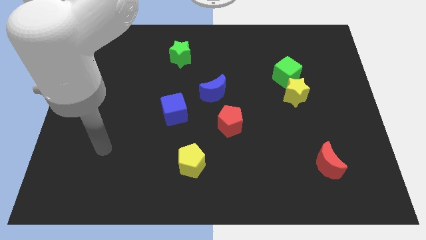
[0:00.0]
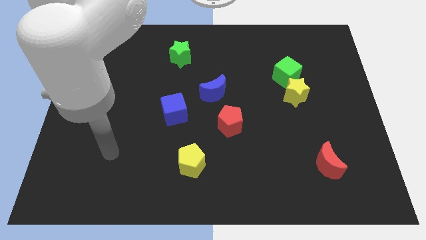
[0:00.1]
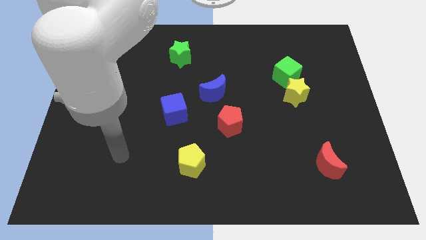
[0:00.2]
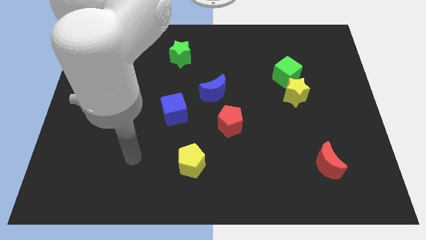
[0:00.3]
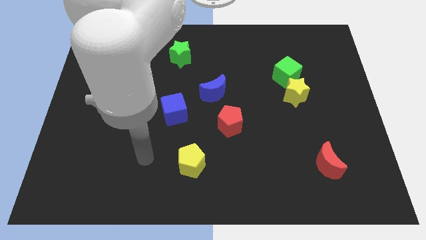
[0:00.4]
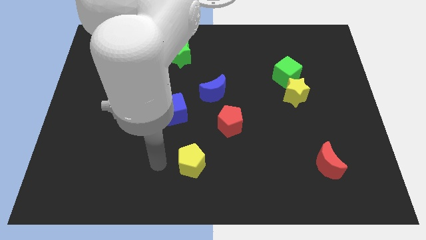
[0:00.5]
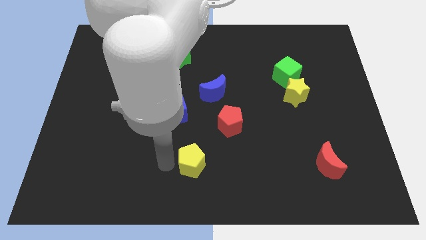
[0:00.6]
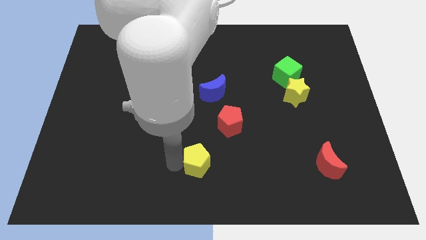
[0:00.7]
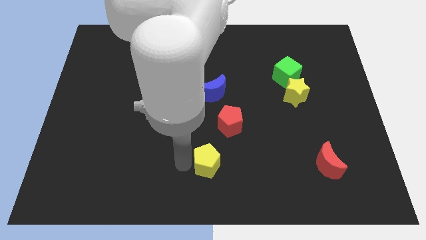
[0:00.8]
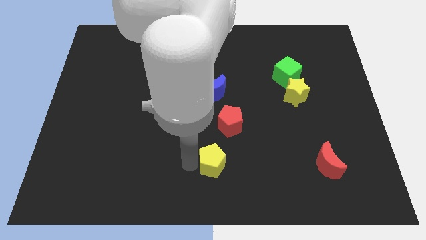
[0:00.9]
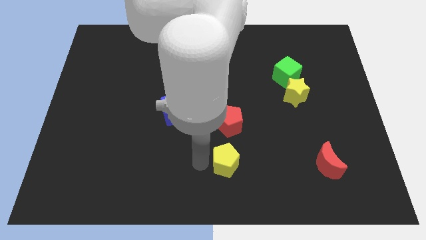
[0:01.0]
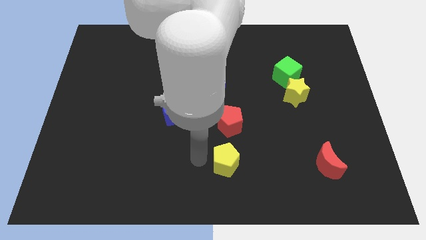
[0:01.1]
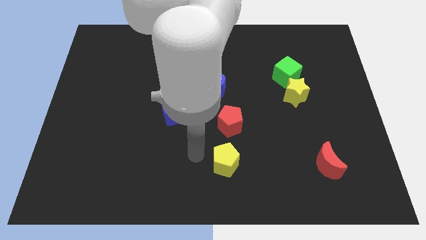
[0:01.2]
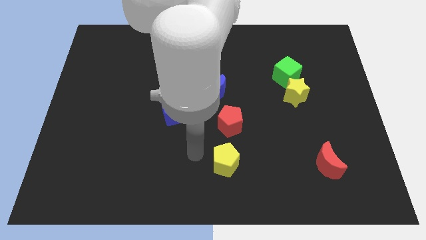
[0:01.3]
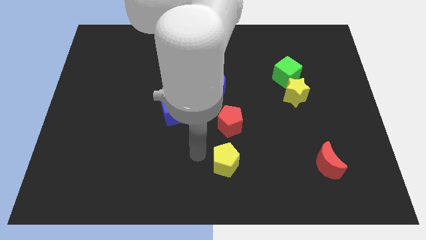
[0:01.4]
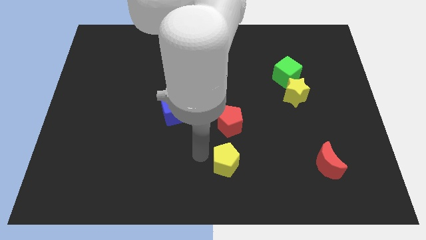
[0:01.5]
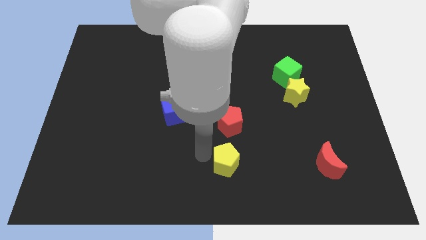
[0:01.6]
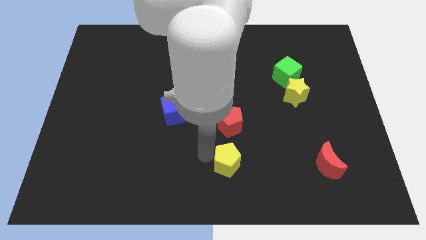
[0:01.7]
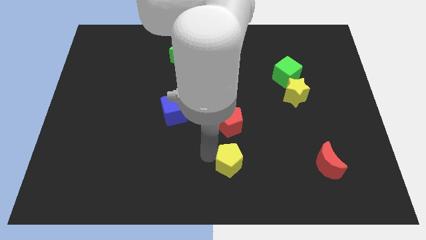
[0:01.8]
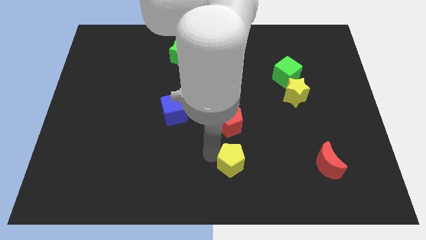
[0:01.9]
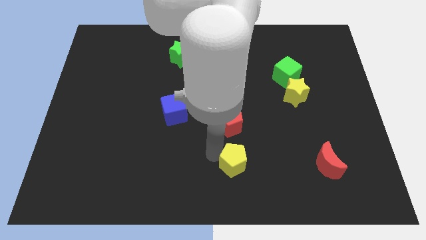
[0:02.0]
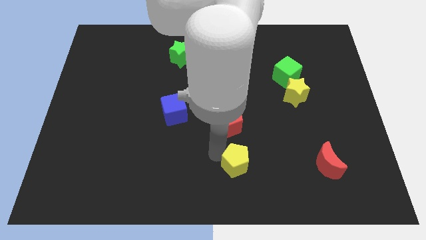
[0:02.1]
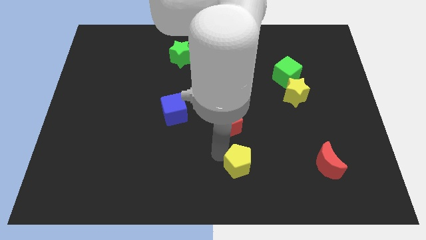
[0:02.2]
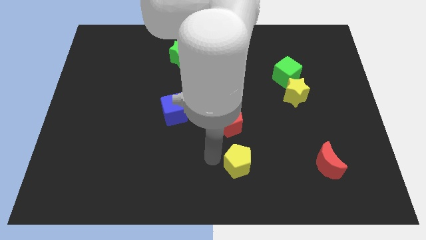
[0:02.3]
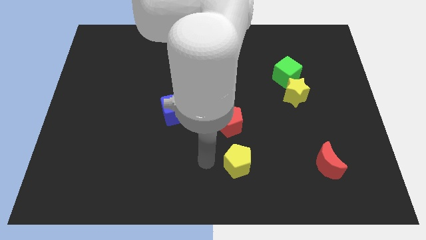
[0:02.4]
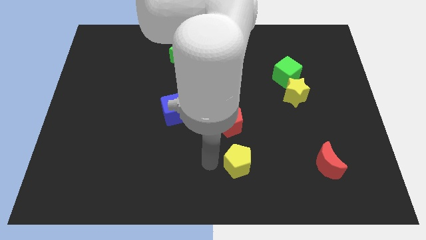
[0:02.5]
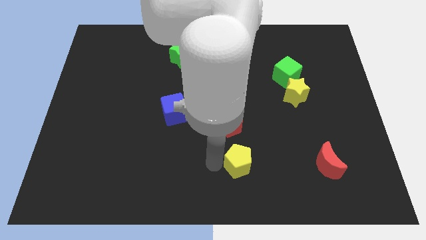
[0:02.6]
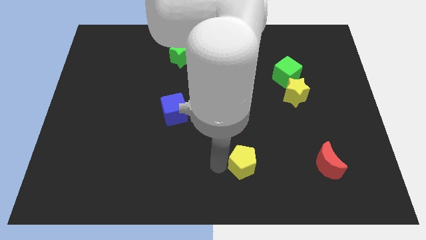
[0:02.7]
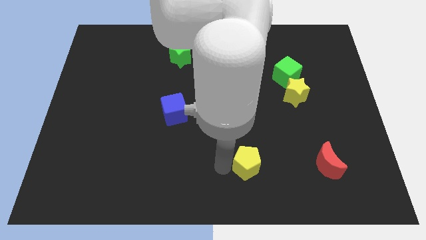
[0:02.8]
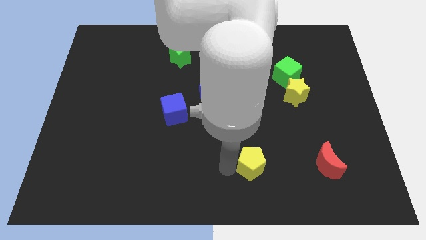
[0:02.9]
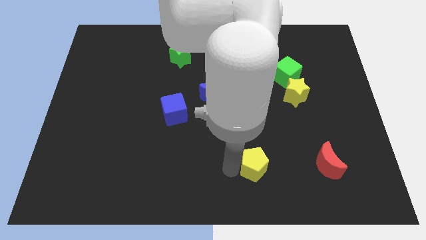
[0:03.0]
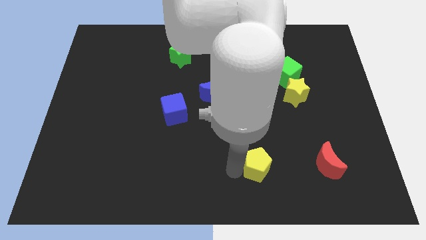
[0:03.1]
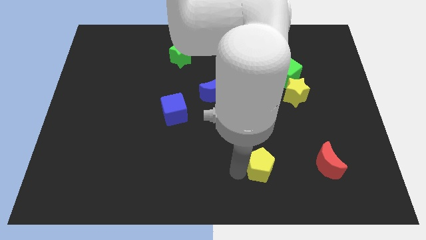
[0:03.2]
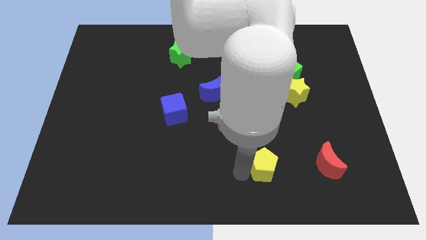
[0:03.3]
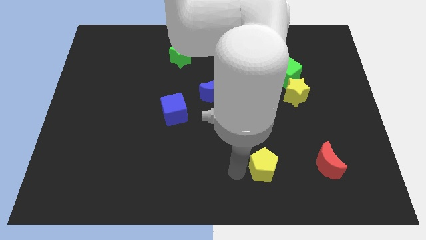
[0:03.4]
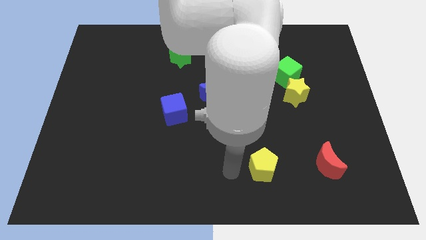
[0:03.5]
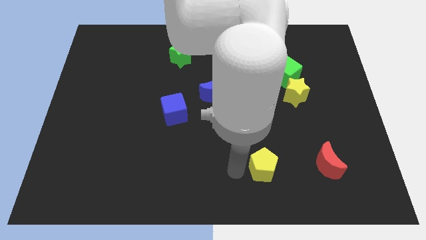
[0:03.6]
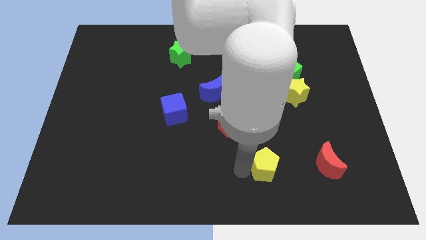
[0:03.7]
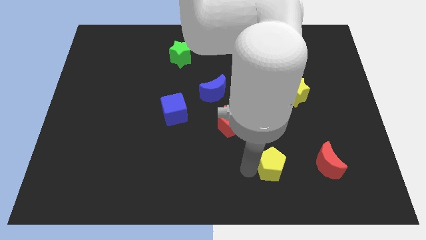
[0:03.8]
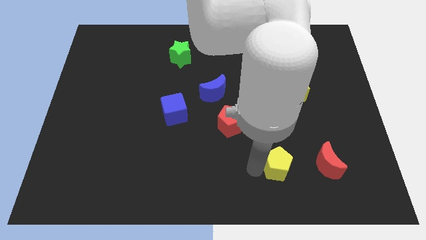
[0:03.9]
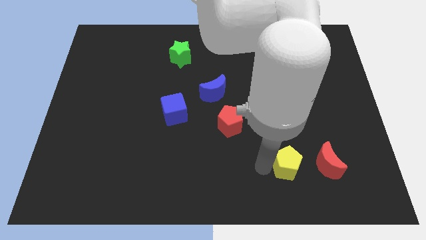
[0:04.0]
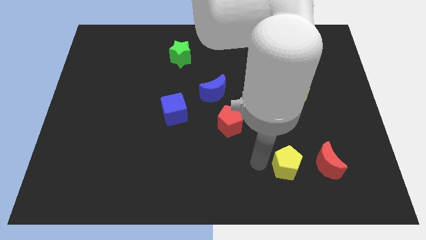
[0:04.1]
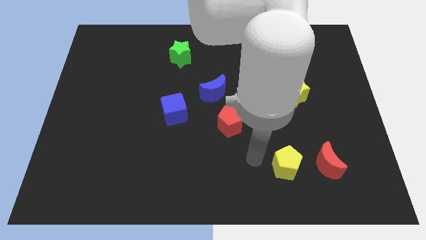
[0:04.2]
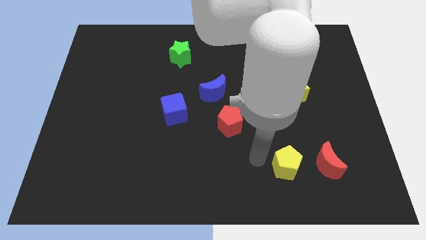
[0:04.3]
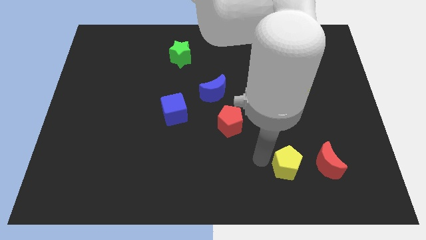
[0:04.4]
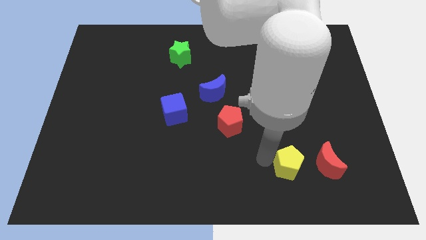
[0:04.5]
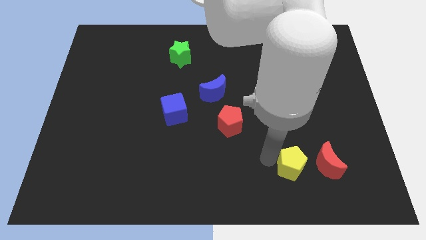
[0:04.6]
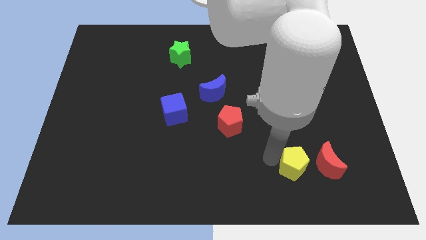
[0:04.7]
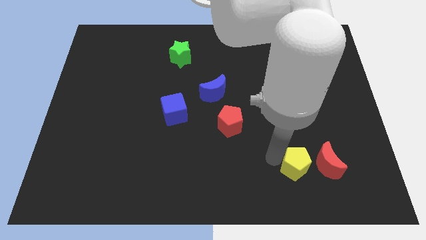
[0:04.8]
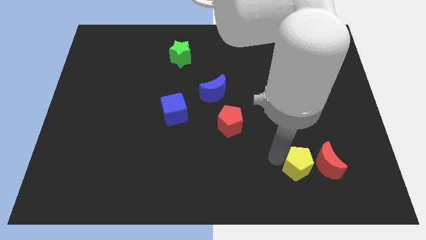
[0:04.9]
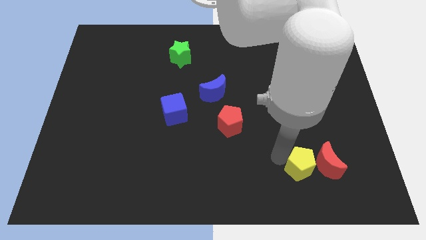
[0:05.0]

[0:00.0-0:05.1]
move the yellow pentagon to the red moon

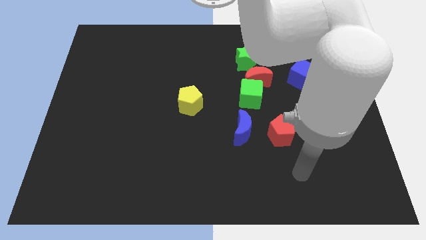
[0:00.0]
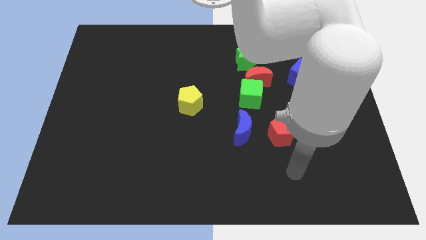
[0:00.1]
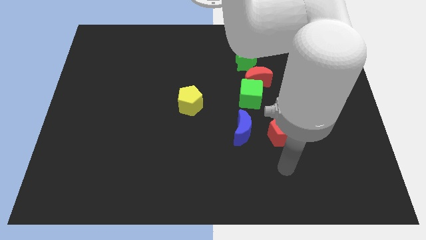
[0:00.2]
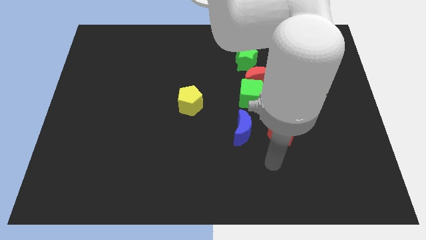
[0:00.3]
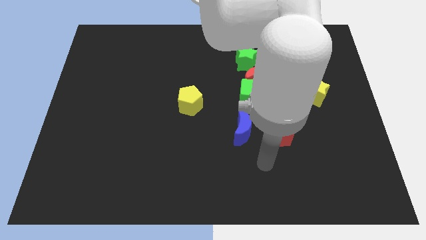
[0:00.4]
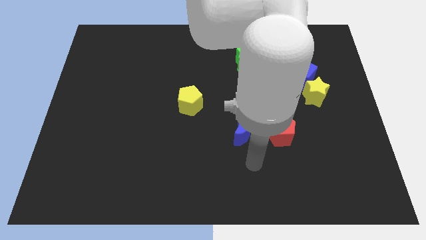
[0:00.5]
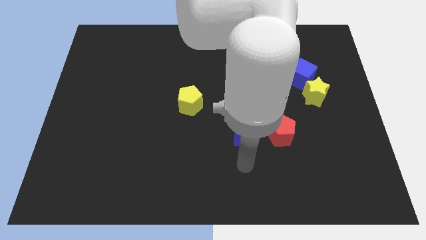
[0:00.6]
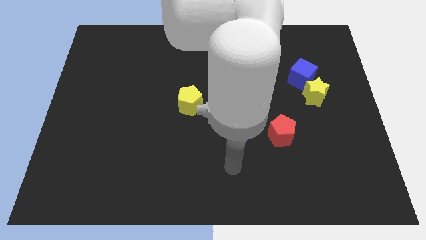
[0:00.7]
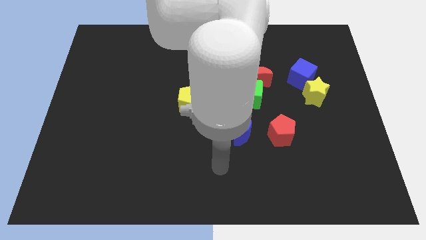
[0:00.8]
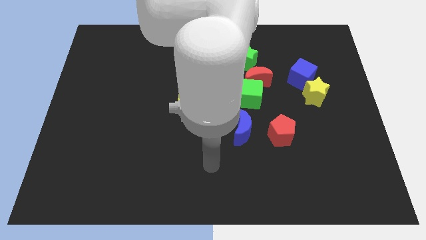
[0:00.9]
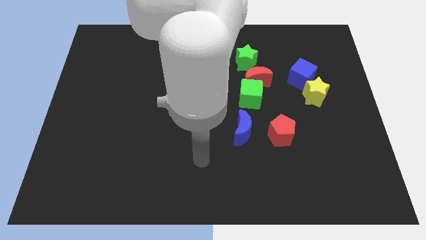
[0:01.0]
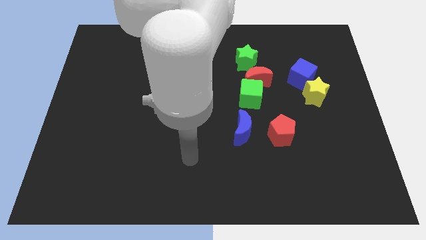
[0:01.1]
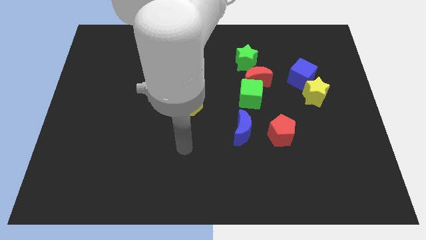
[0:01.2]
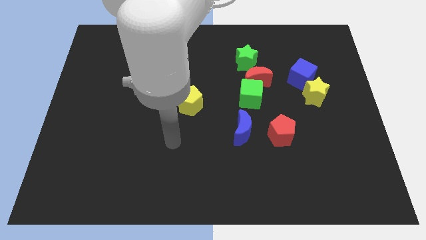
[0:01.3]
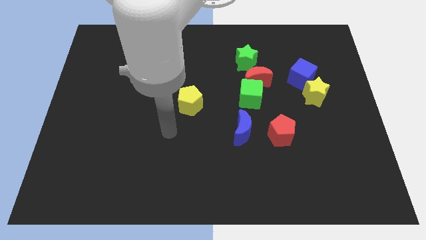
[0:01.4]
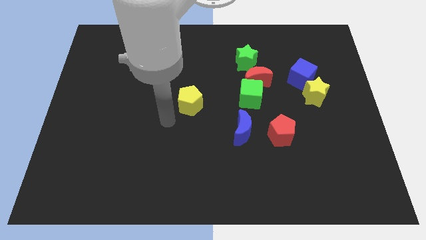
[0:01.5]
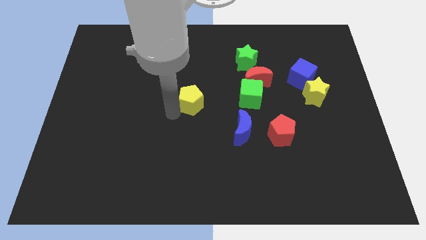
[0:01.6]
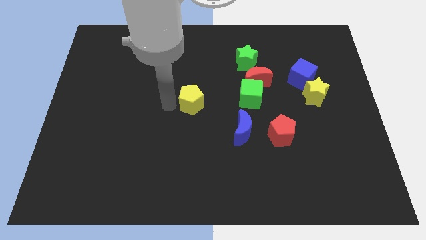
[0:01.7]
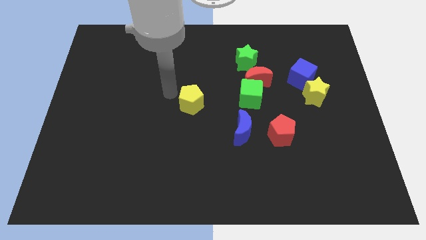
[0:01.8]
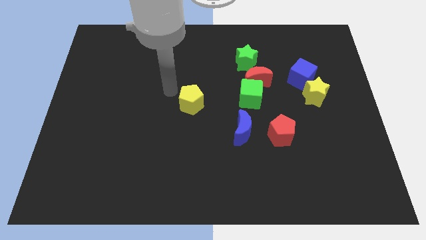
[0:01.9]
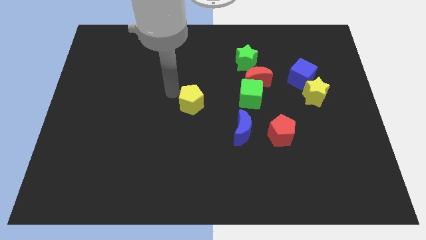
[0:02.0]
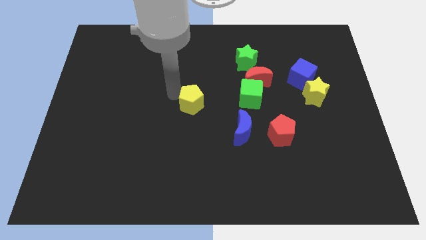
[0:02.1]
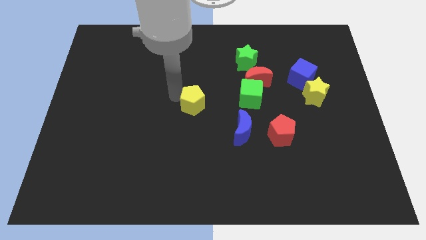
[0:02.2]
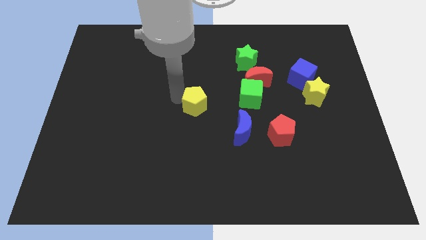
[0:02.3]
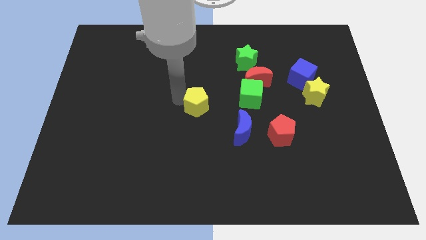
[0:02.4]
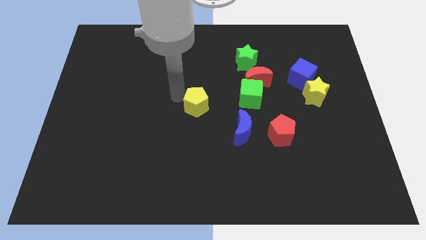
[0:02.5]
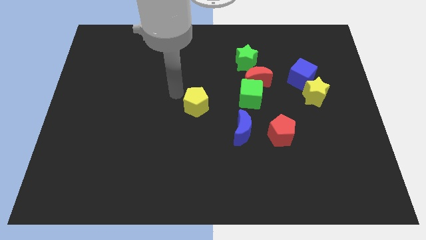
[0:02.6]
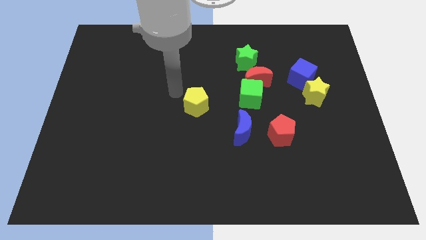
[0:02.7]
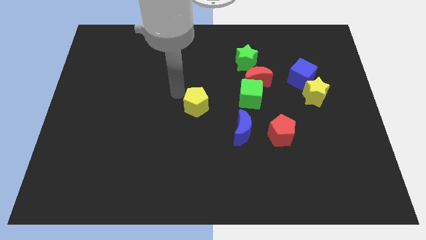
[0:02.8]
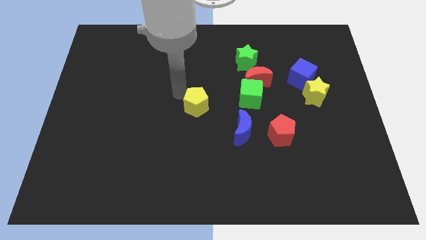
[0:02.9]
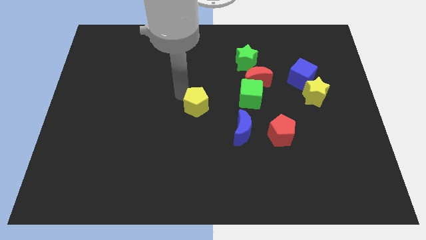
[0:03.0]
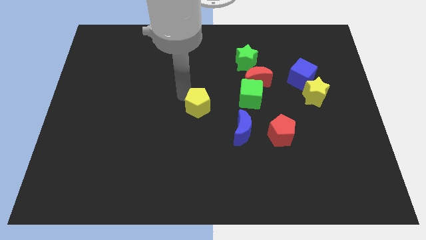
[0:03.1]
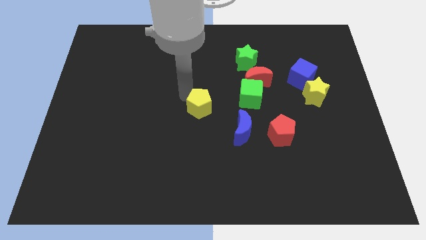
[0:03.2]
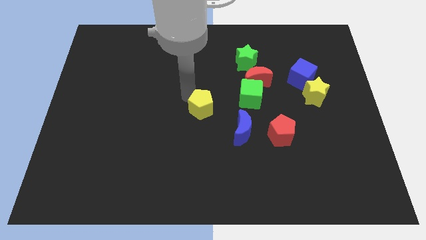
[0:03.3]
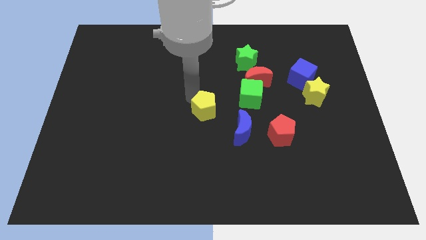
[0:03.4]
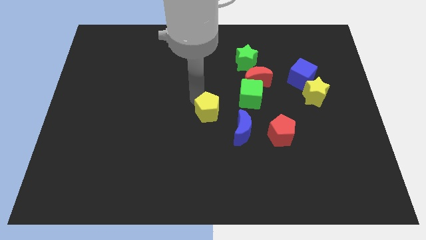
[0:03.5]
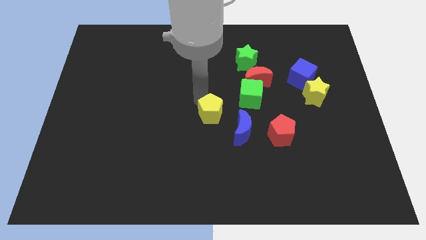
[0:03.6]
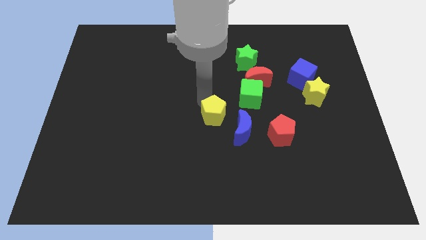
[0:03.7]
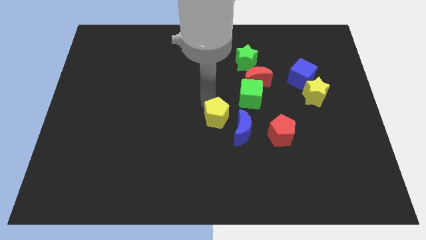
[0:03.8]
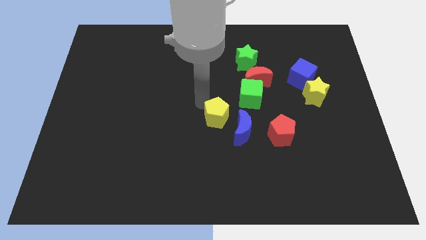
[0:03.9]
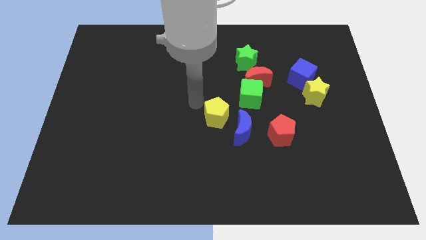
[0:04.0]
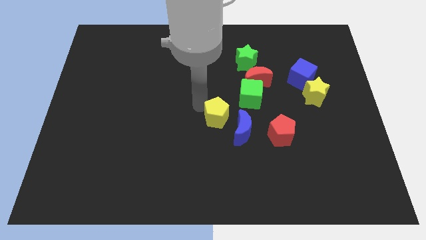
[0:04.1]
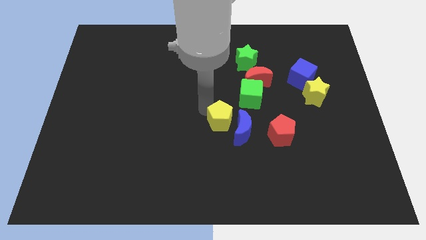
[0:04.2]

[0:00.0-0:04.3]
put the yellow pentagon next to the blue moon
